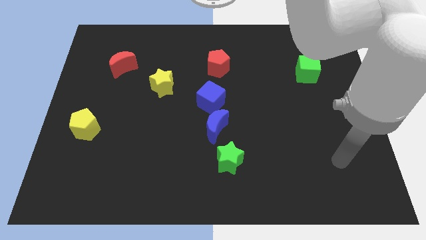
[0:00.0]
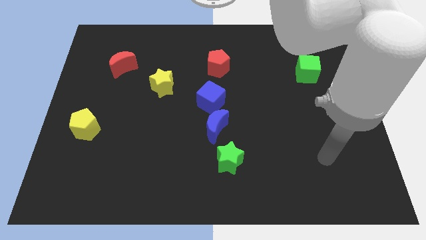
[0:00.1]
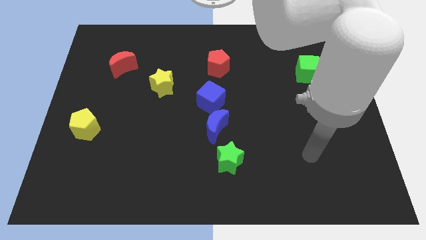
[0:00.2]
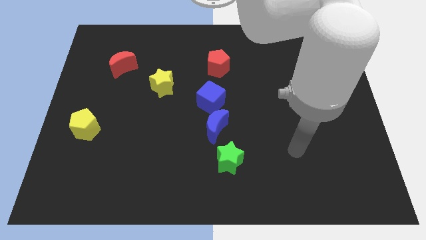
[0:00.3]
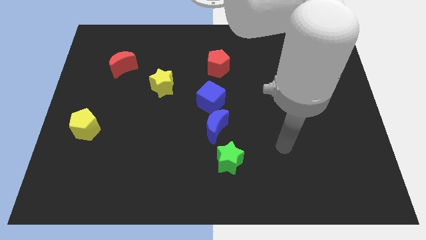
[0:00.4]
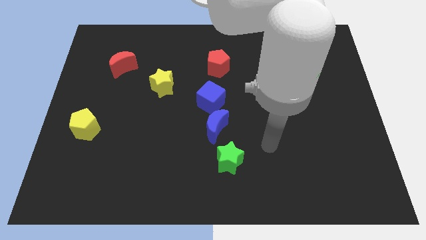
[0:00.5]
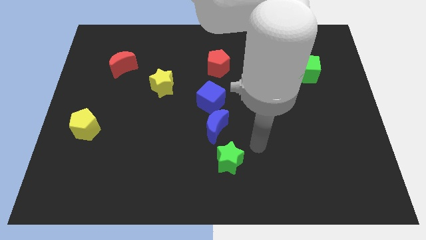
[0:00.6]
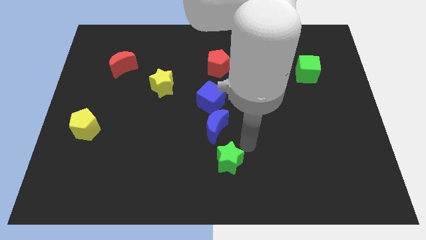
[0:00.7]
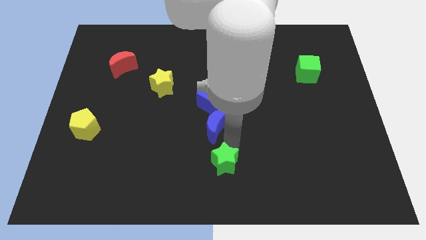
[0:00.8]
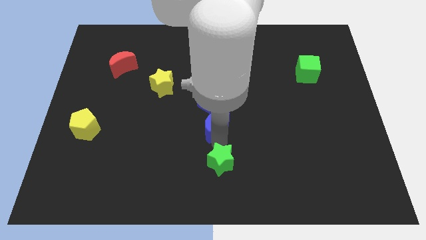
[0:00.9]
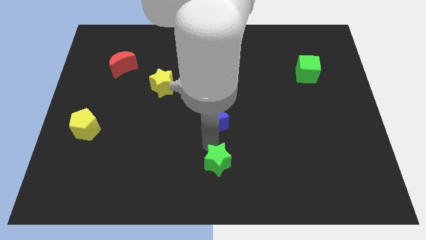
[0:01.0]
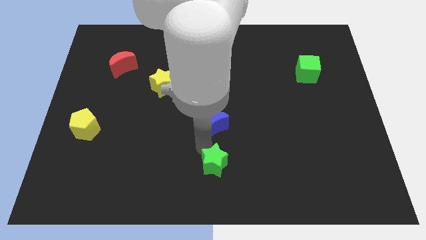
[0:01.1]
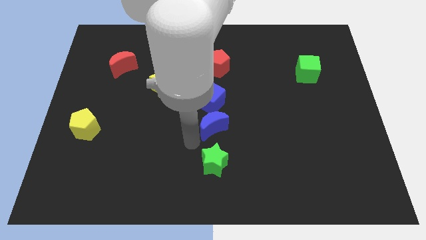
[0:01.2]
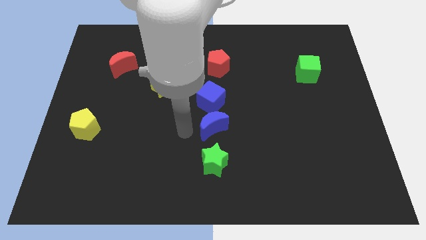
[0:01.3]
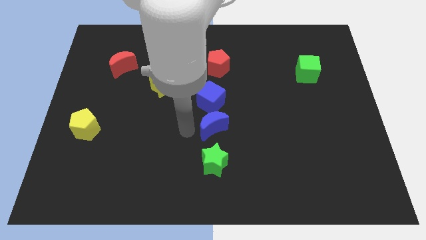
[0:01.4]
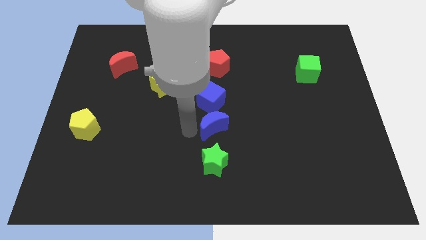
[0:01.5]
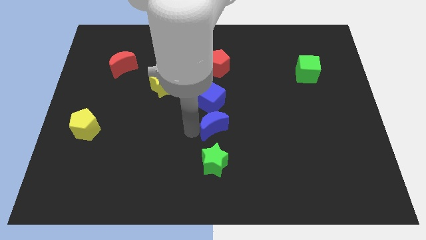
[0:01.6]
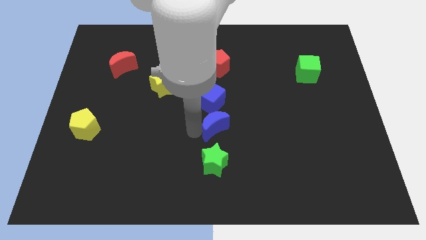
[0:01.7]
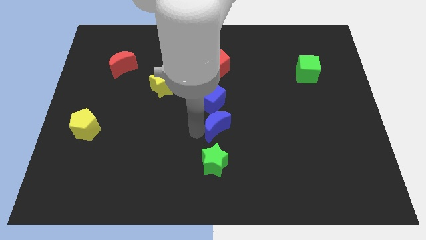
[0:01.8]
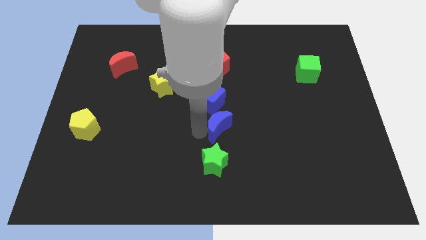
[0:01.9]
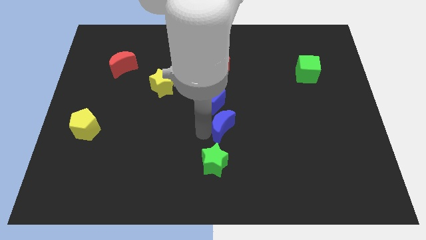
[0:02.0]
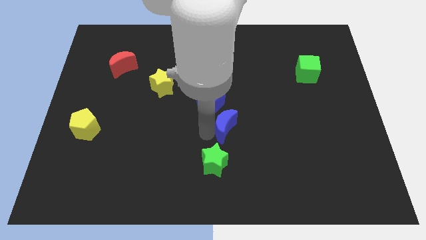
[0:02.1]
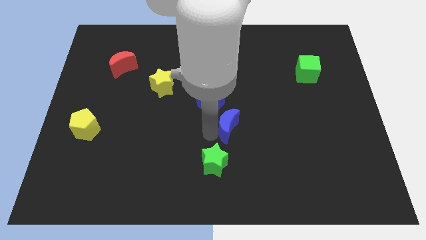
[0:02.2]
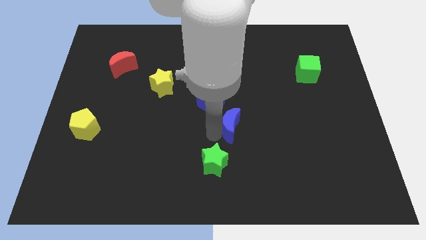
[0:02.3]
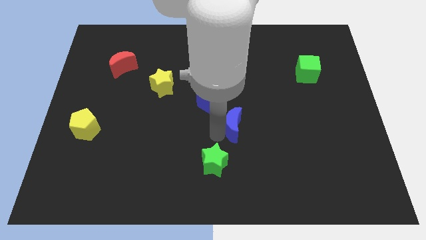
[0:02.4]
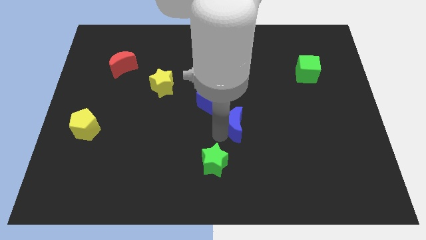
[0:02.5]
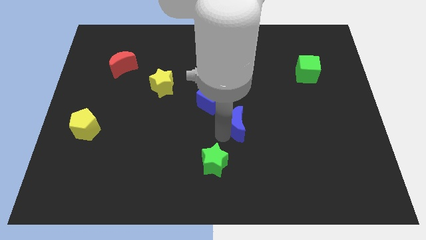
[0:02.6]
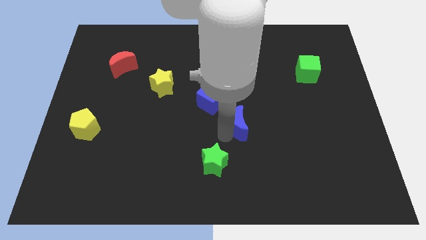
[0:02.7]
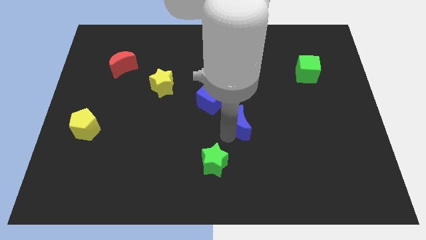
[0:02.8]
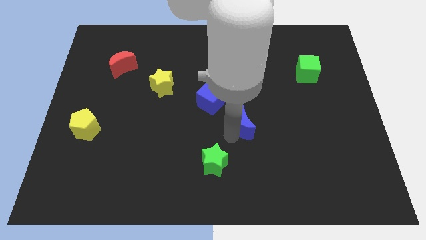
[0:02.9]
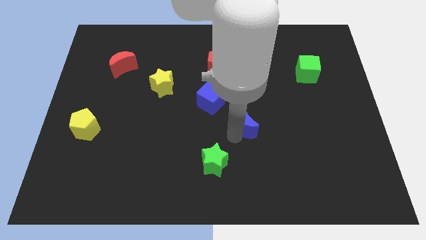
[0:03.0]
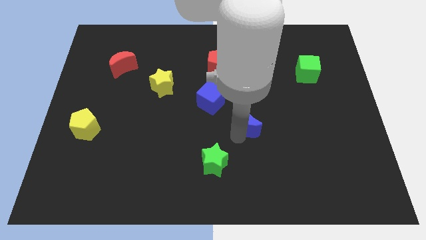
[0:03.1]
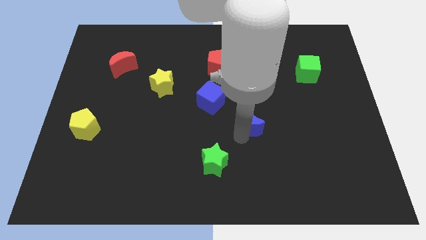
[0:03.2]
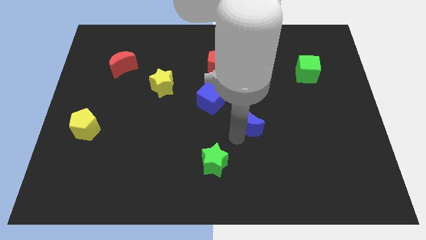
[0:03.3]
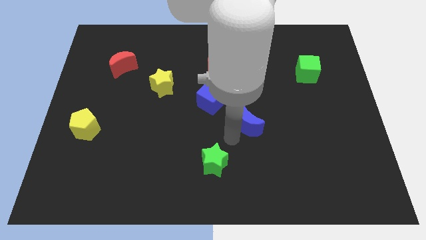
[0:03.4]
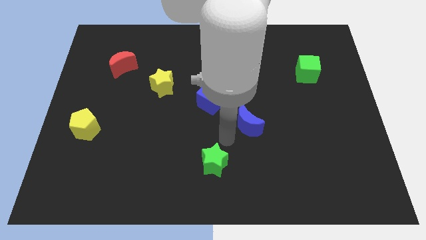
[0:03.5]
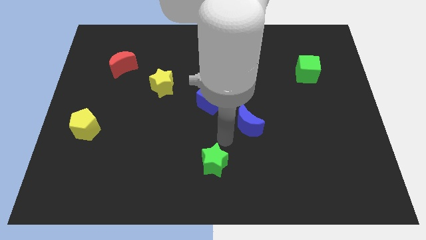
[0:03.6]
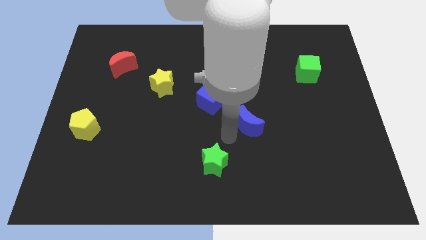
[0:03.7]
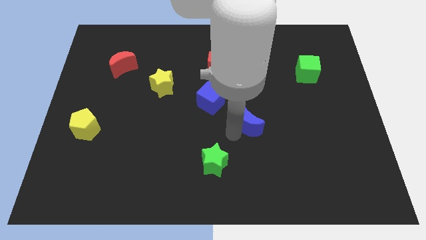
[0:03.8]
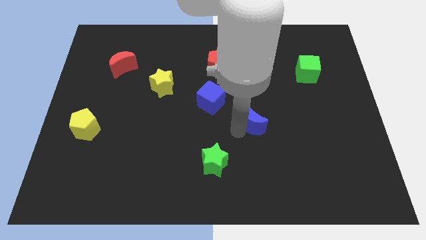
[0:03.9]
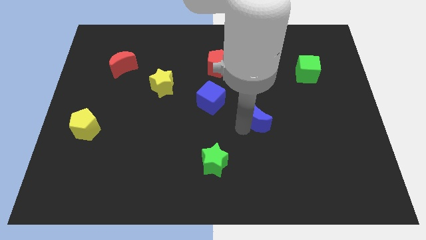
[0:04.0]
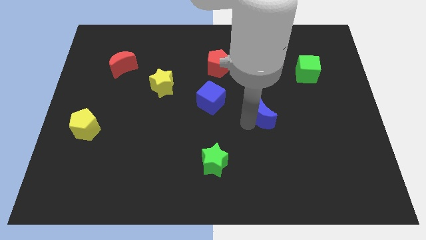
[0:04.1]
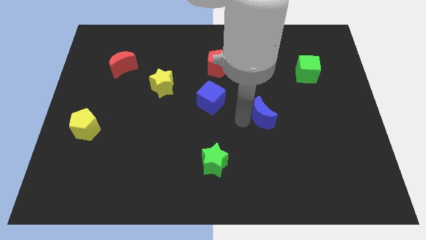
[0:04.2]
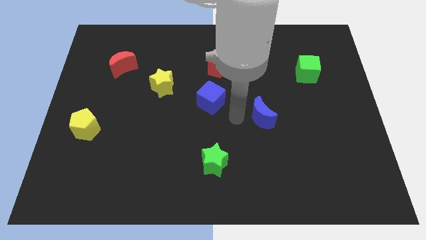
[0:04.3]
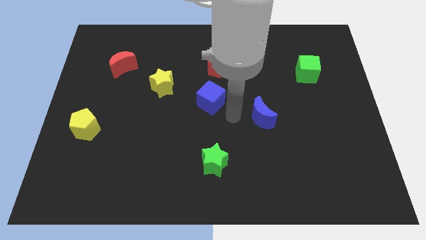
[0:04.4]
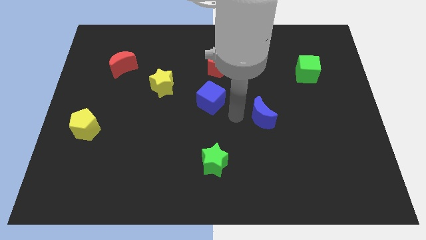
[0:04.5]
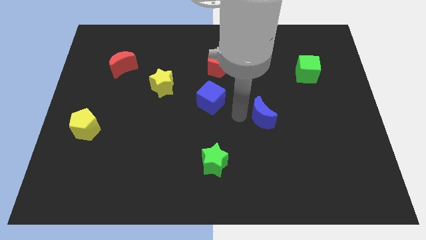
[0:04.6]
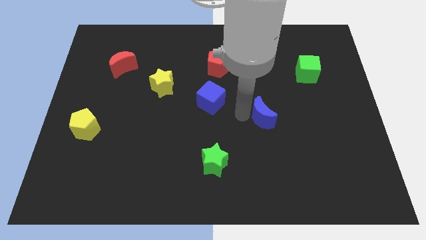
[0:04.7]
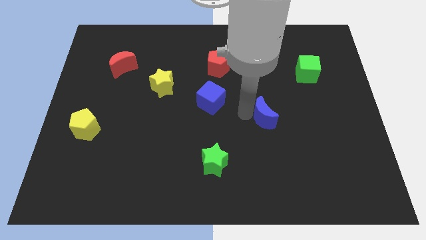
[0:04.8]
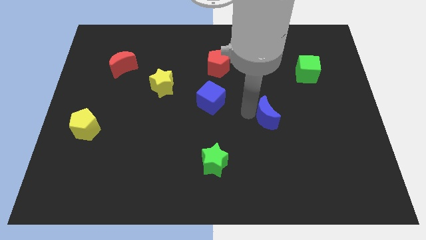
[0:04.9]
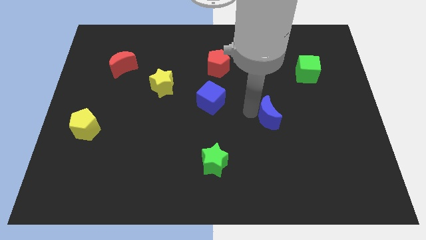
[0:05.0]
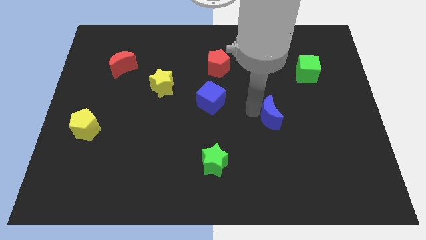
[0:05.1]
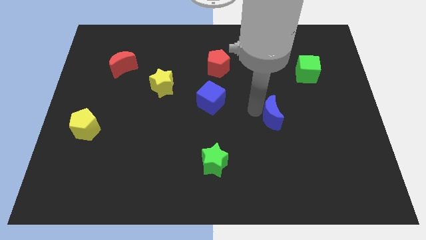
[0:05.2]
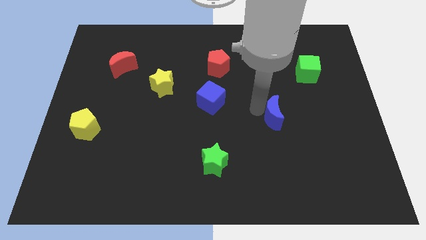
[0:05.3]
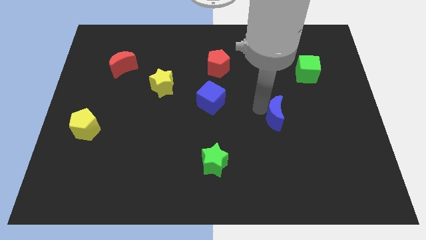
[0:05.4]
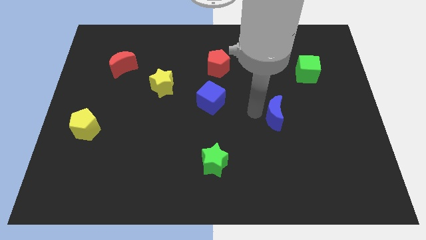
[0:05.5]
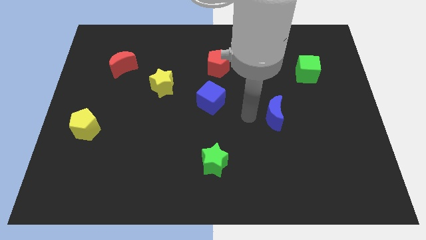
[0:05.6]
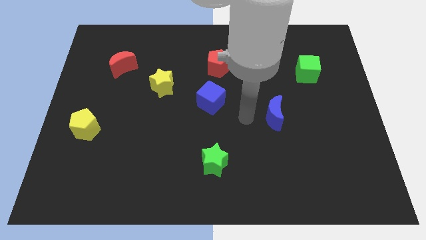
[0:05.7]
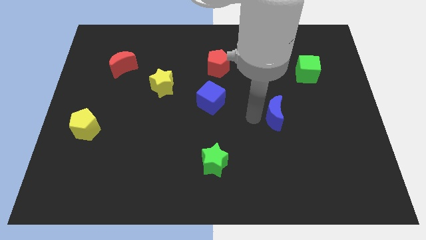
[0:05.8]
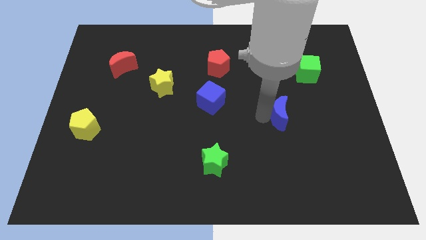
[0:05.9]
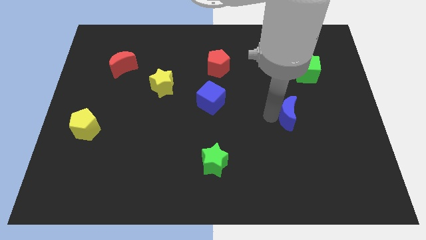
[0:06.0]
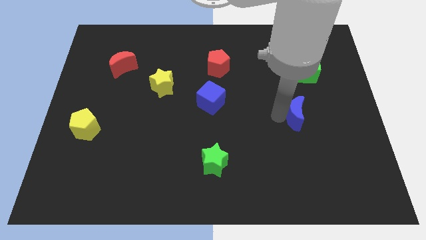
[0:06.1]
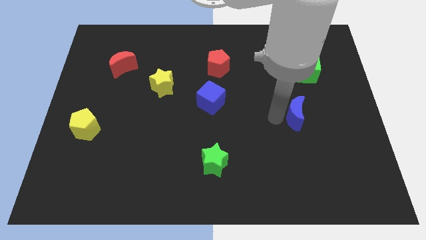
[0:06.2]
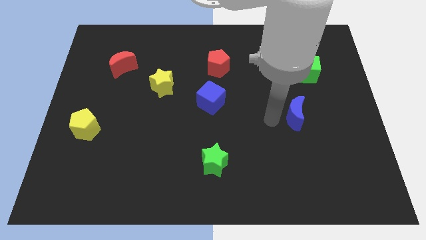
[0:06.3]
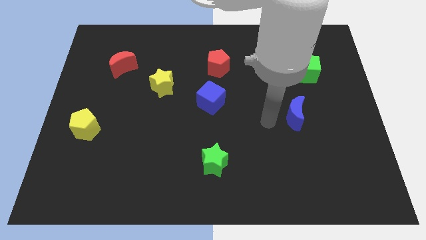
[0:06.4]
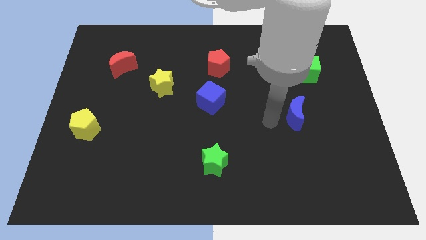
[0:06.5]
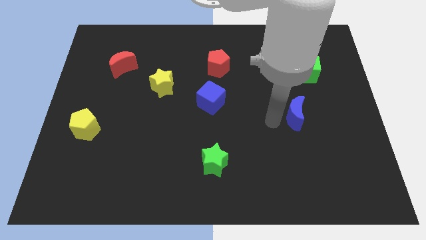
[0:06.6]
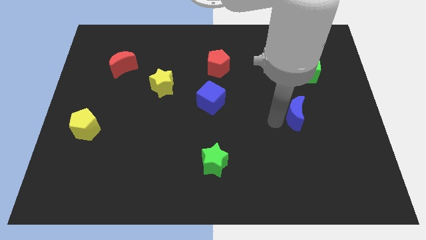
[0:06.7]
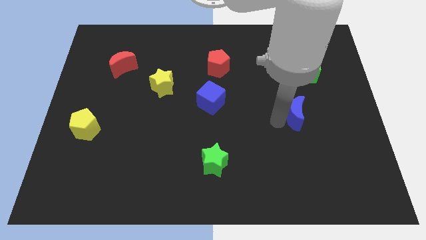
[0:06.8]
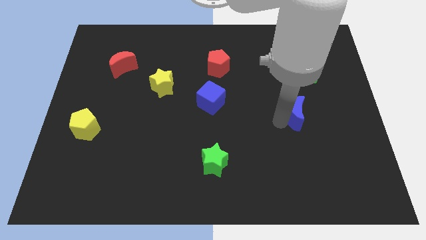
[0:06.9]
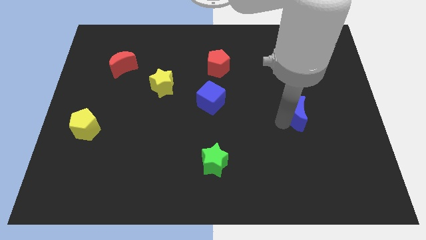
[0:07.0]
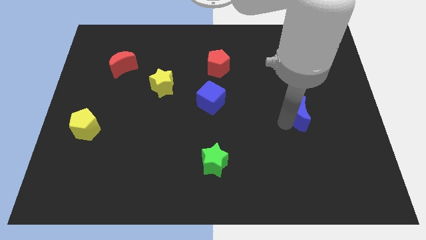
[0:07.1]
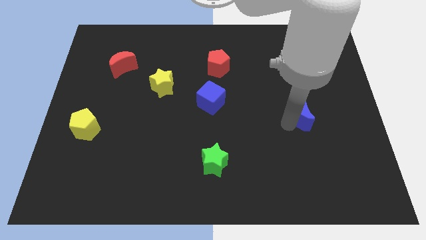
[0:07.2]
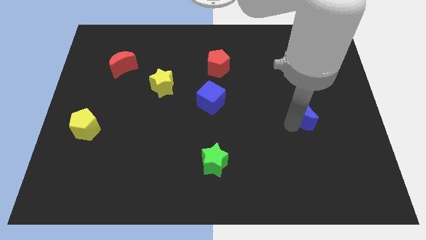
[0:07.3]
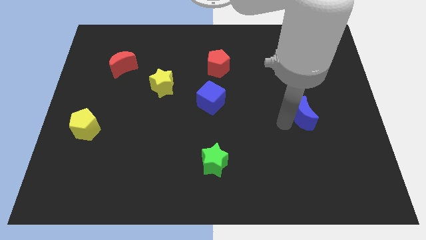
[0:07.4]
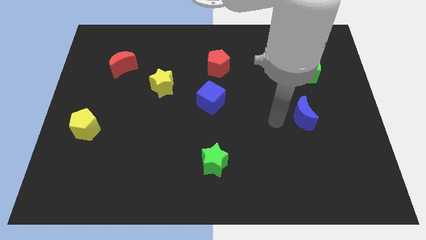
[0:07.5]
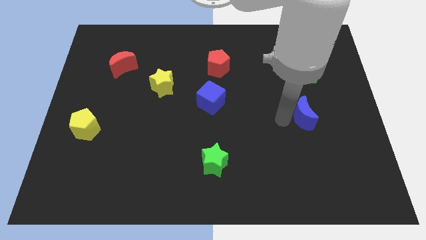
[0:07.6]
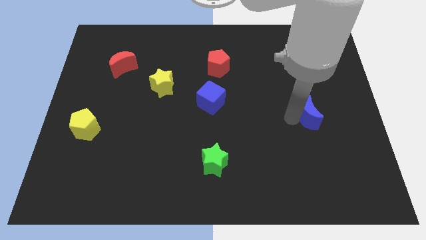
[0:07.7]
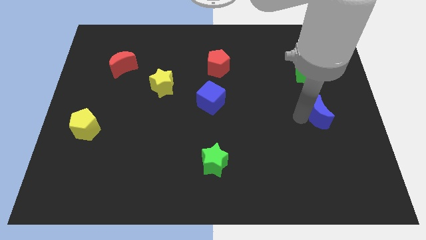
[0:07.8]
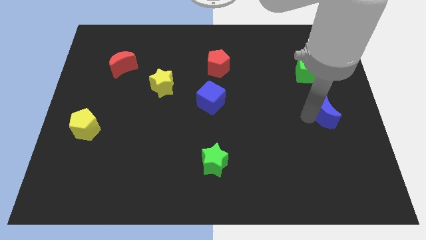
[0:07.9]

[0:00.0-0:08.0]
slide the blue moon to the center right
